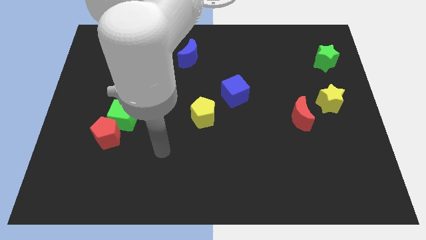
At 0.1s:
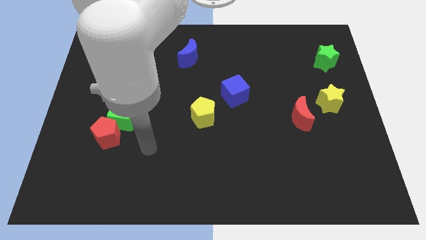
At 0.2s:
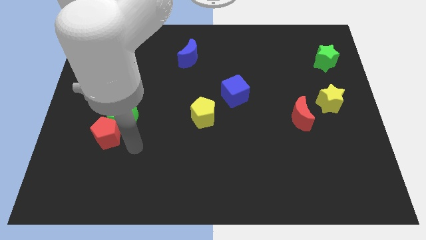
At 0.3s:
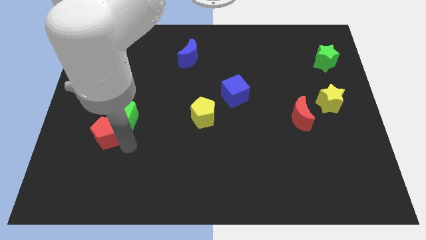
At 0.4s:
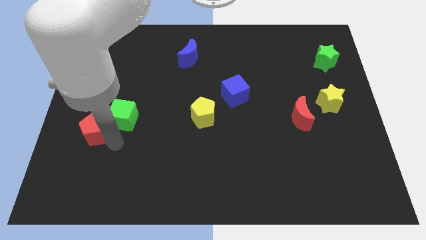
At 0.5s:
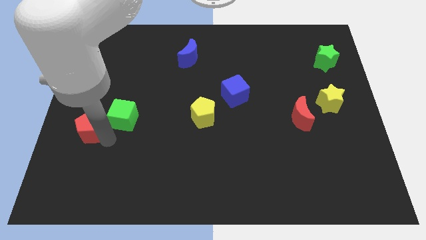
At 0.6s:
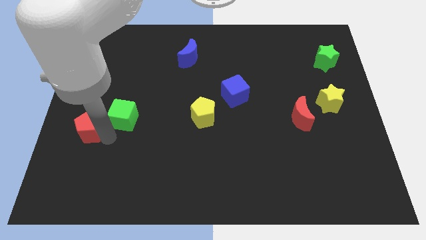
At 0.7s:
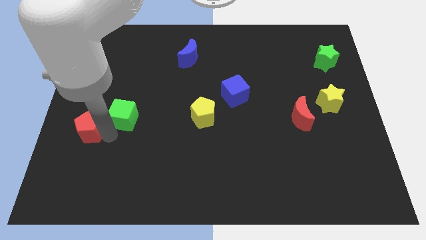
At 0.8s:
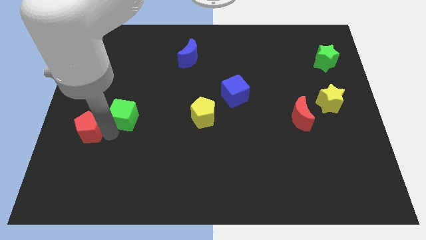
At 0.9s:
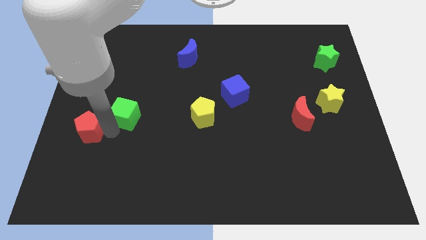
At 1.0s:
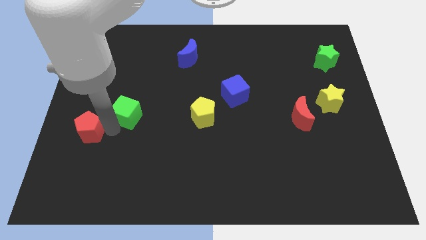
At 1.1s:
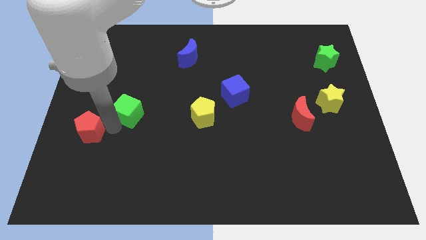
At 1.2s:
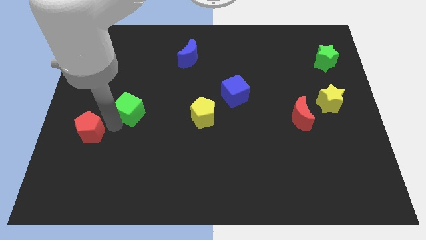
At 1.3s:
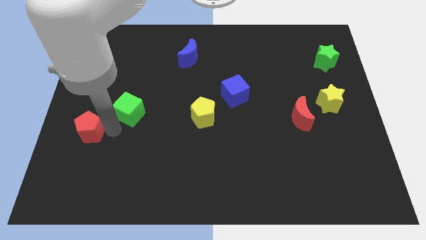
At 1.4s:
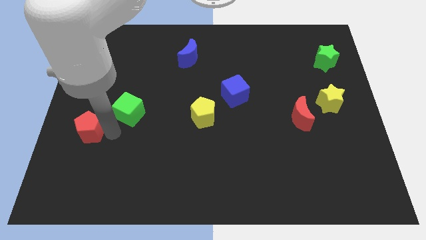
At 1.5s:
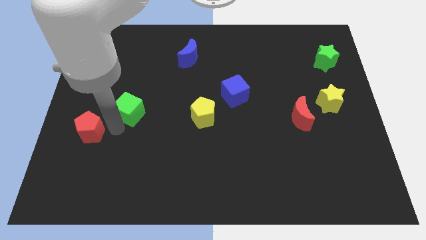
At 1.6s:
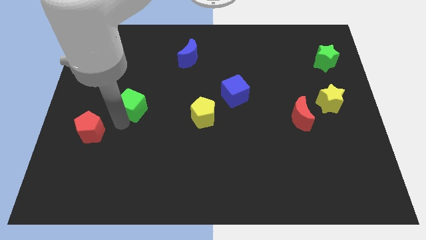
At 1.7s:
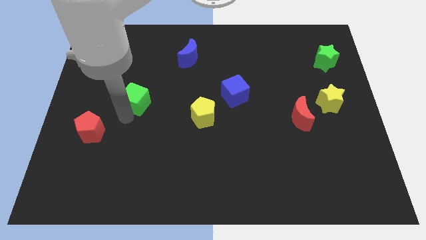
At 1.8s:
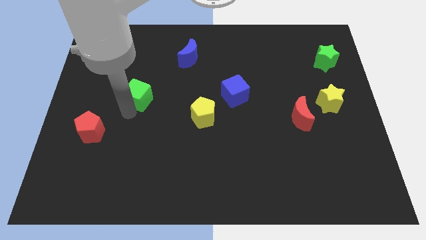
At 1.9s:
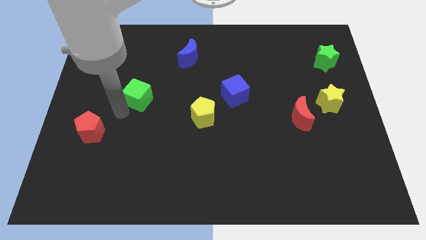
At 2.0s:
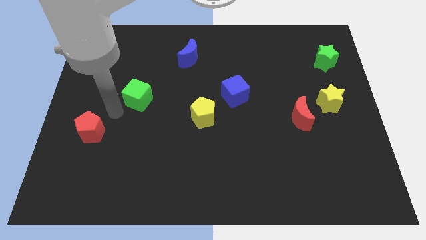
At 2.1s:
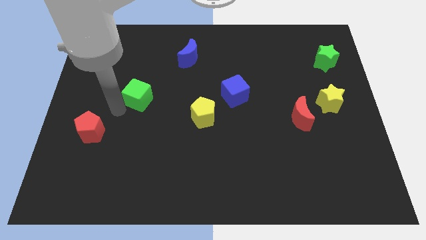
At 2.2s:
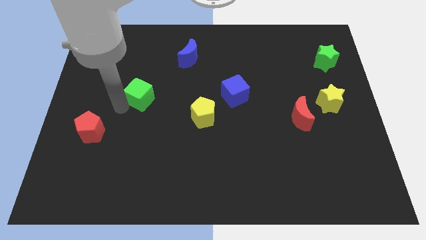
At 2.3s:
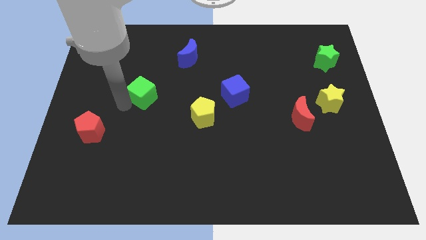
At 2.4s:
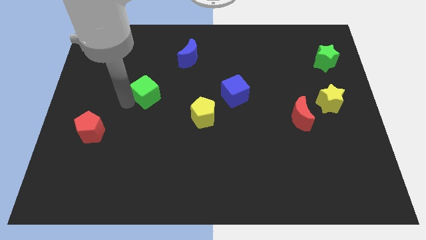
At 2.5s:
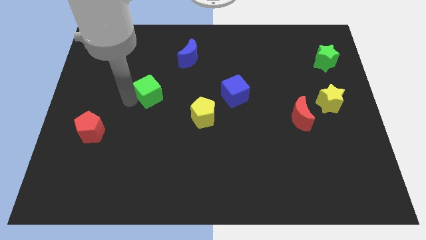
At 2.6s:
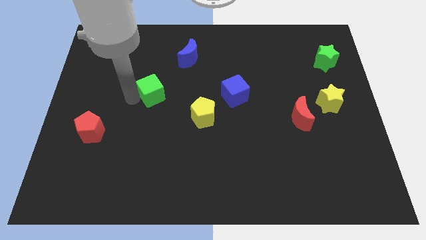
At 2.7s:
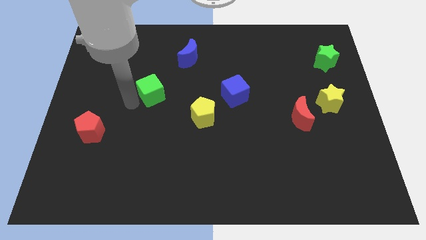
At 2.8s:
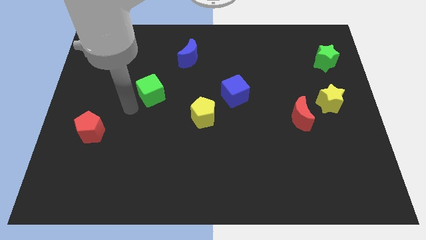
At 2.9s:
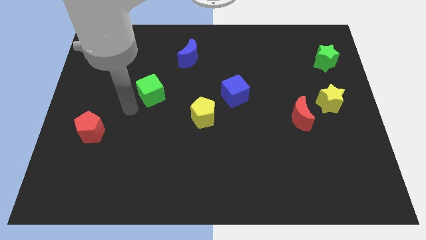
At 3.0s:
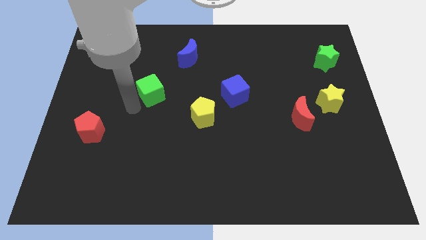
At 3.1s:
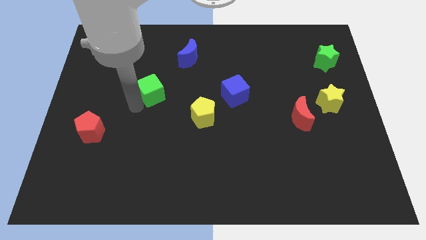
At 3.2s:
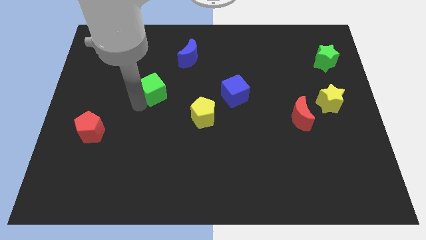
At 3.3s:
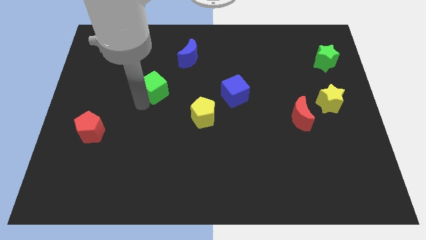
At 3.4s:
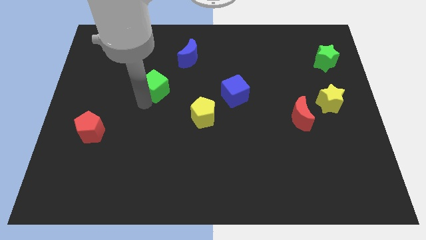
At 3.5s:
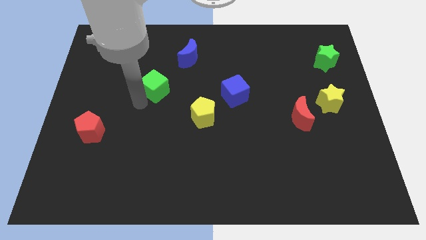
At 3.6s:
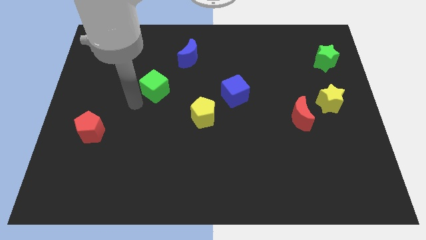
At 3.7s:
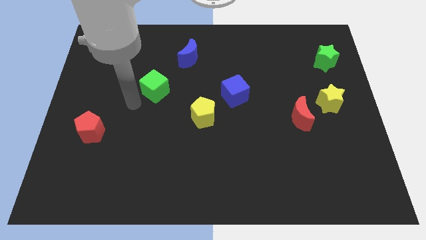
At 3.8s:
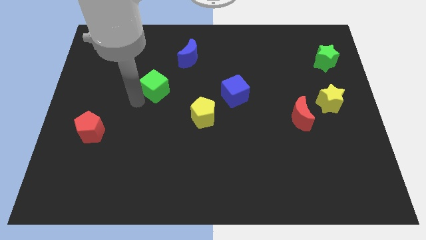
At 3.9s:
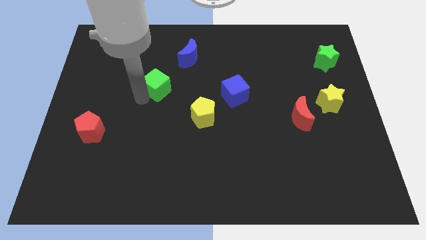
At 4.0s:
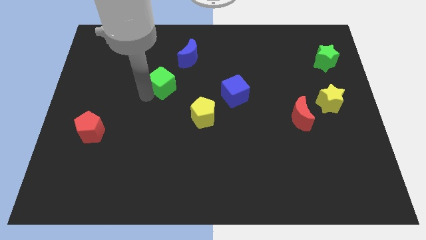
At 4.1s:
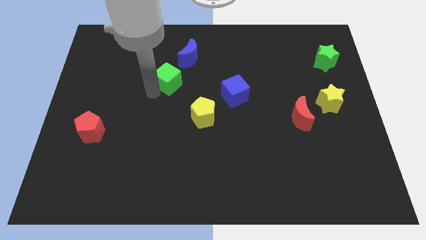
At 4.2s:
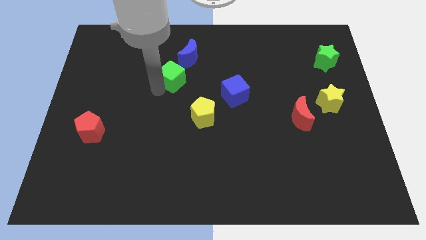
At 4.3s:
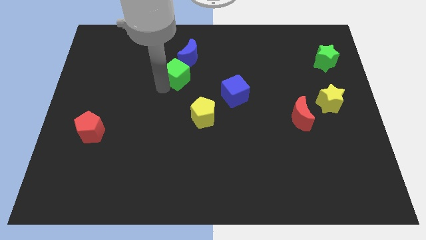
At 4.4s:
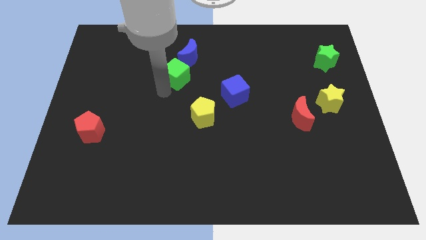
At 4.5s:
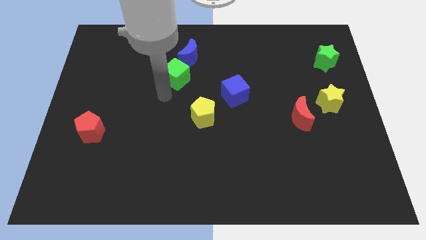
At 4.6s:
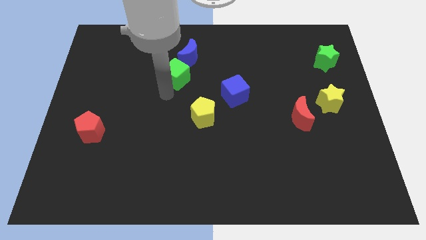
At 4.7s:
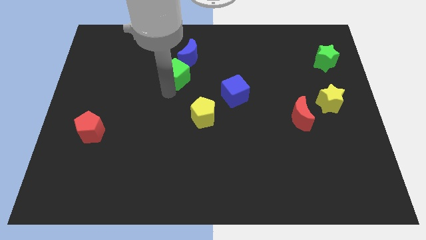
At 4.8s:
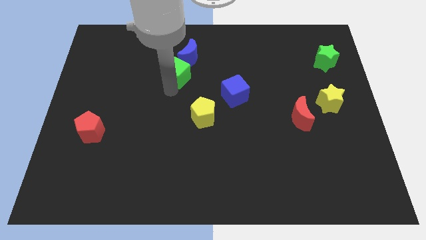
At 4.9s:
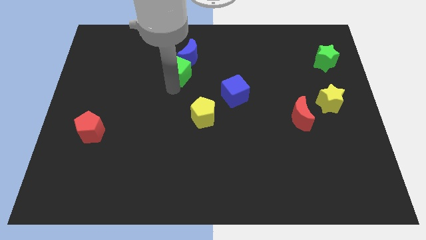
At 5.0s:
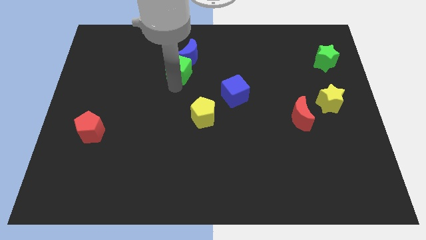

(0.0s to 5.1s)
push the green cube towards the blue moon

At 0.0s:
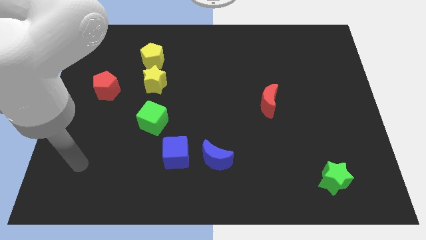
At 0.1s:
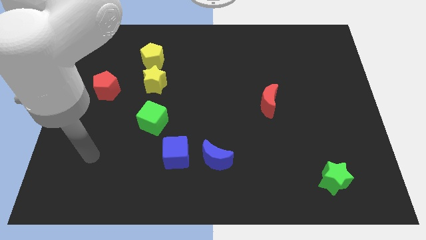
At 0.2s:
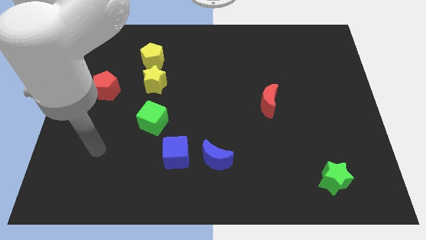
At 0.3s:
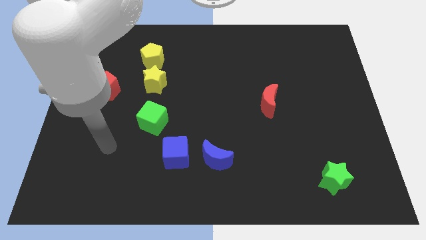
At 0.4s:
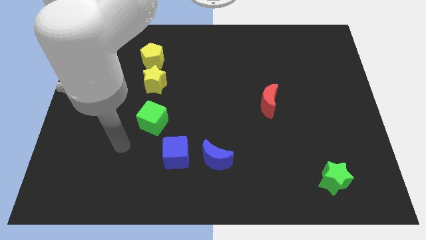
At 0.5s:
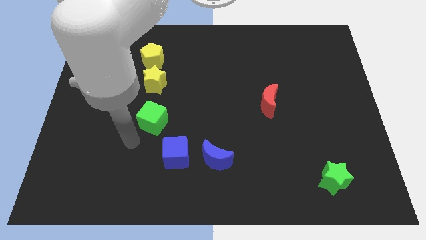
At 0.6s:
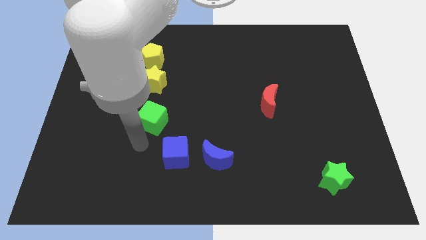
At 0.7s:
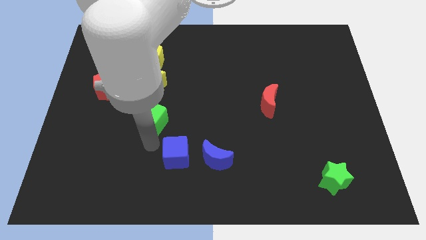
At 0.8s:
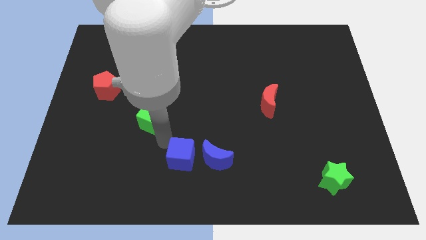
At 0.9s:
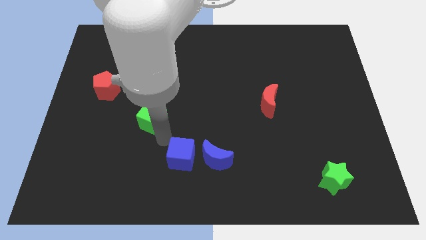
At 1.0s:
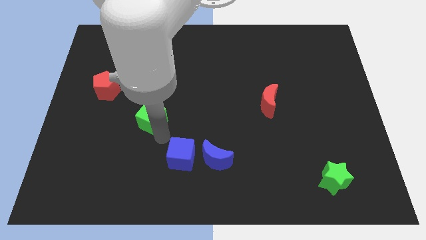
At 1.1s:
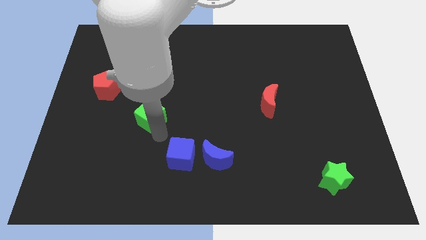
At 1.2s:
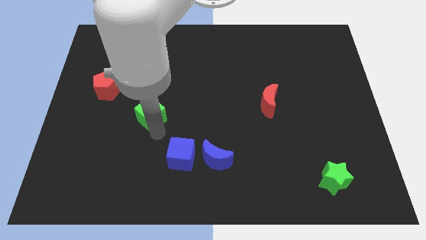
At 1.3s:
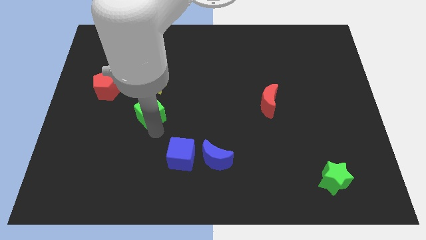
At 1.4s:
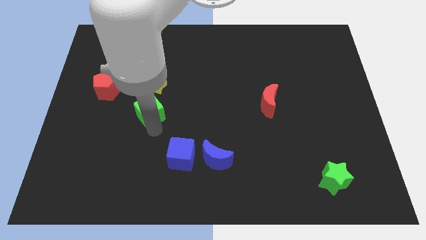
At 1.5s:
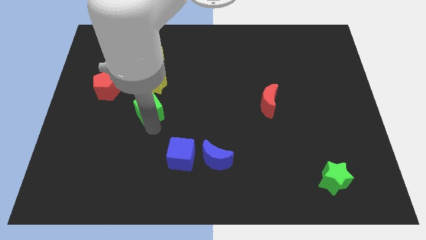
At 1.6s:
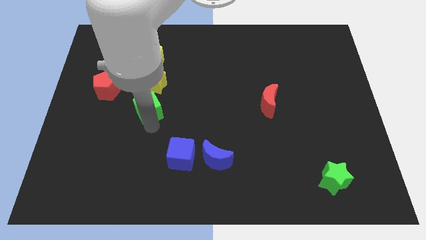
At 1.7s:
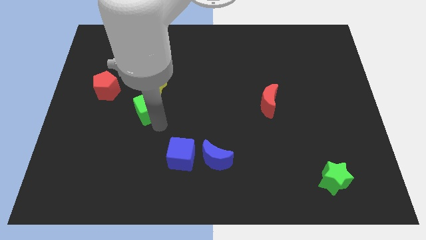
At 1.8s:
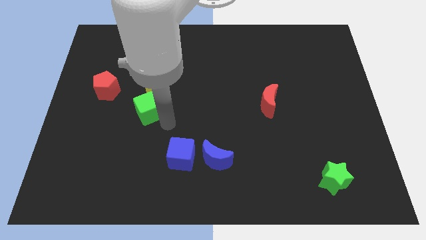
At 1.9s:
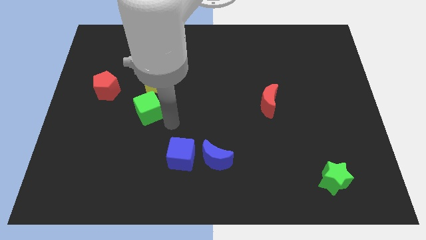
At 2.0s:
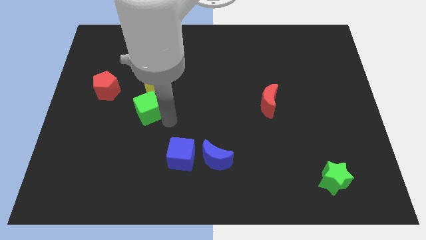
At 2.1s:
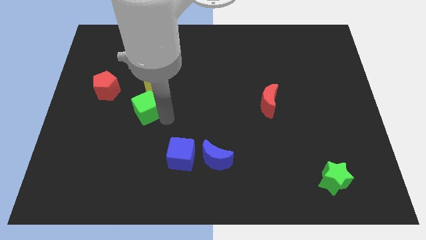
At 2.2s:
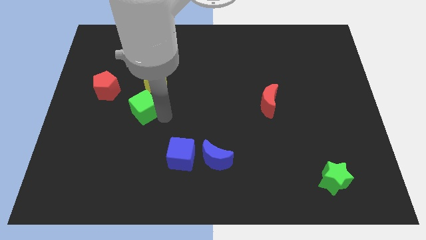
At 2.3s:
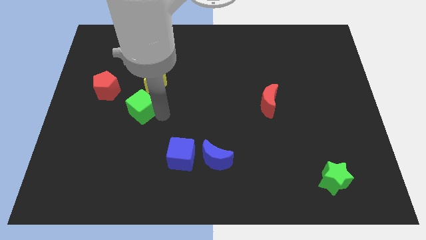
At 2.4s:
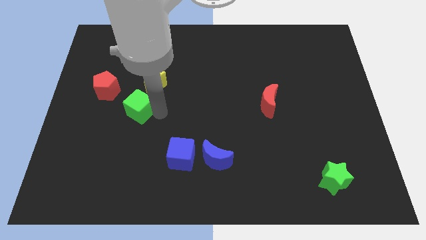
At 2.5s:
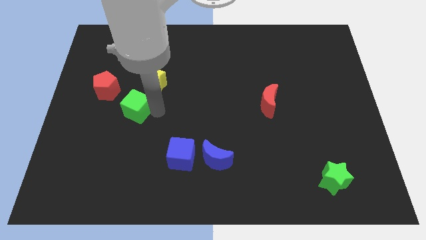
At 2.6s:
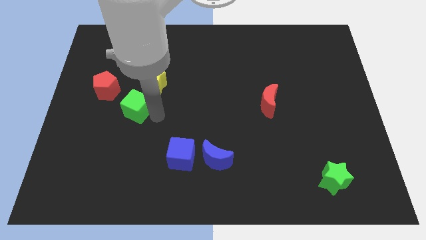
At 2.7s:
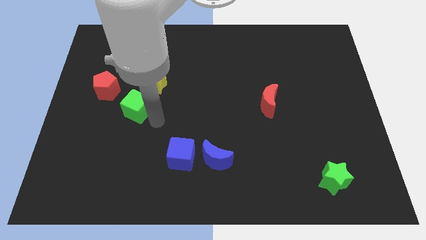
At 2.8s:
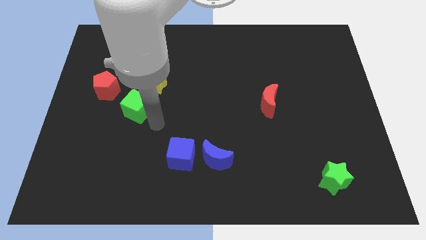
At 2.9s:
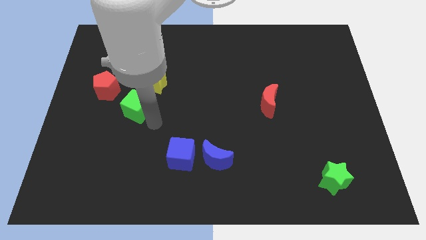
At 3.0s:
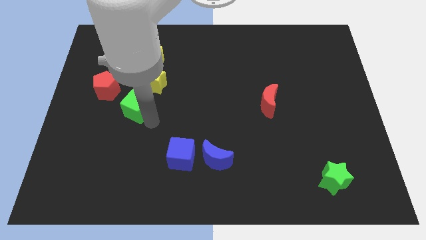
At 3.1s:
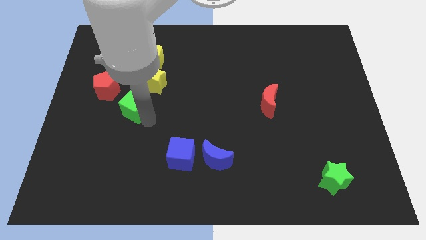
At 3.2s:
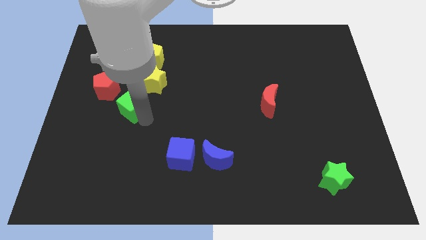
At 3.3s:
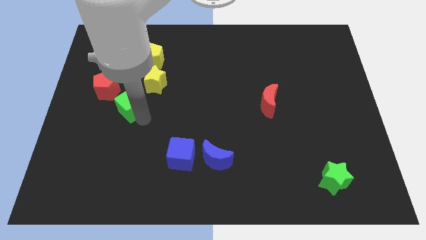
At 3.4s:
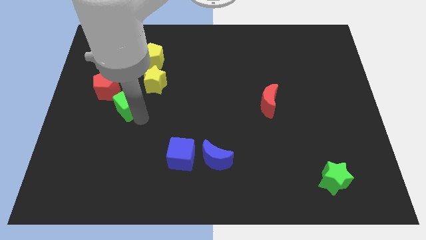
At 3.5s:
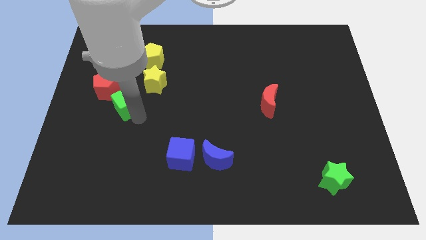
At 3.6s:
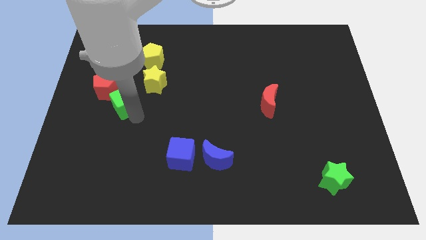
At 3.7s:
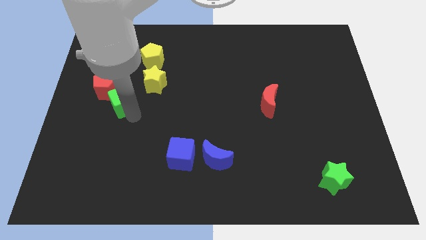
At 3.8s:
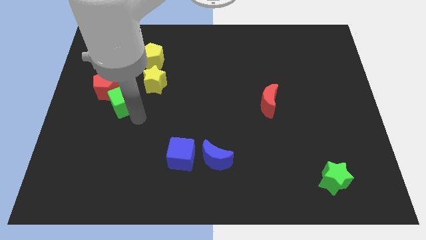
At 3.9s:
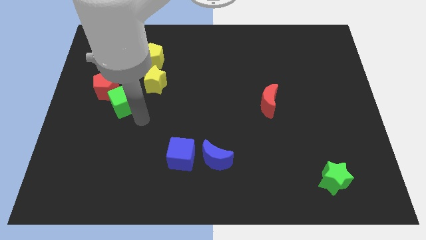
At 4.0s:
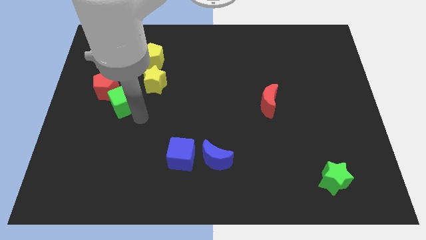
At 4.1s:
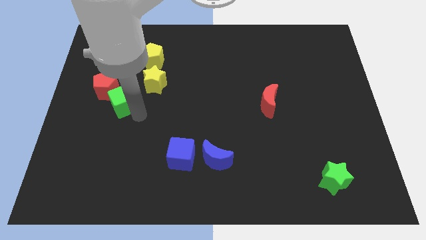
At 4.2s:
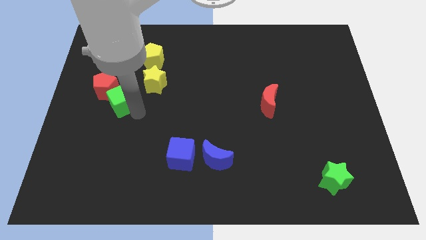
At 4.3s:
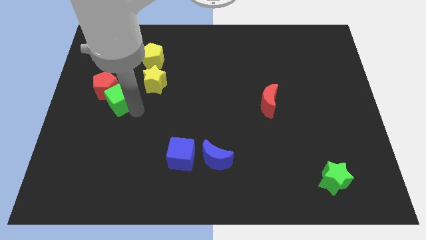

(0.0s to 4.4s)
slide the green cube close to the red pentagon
